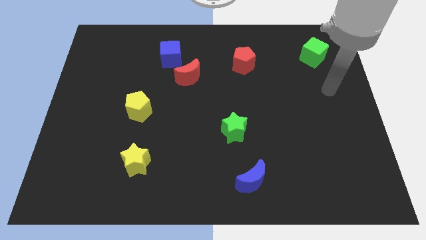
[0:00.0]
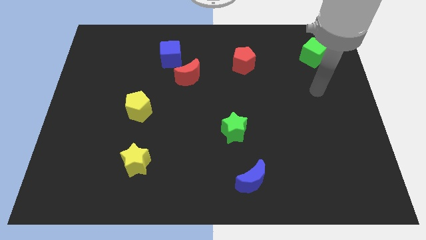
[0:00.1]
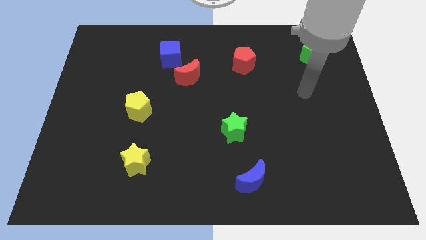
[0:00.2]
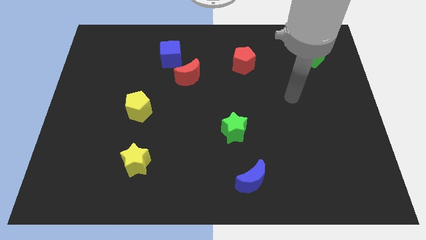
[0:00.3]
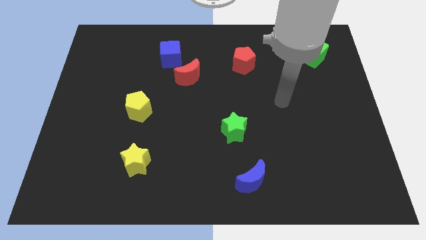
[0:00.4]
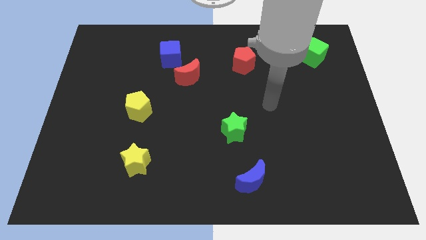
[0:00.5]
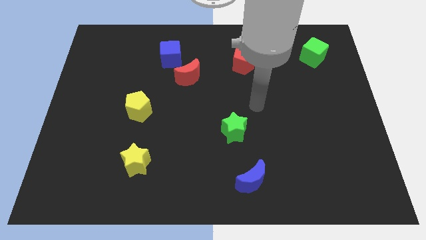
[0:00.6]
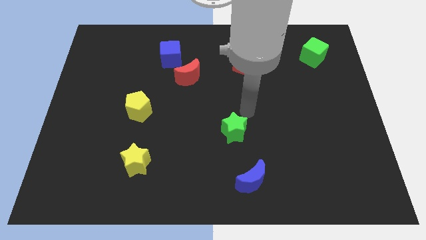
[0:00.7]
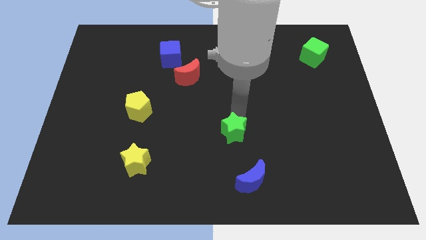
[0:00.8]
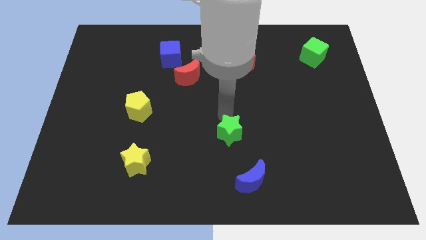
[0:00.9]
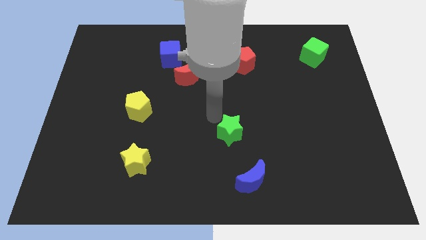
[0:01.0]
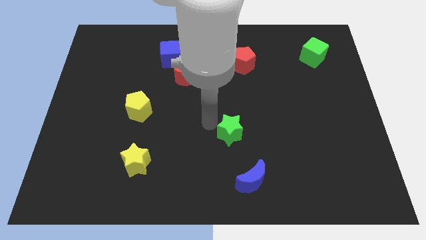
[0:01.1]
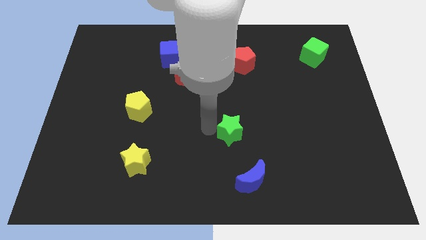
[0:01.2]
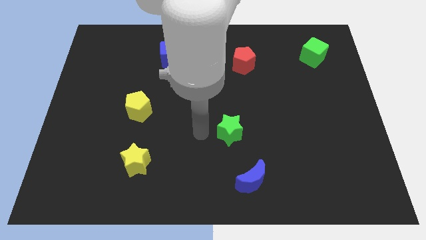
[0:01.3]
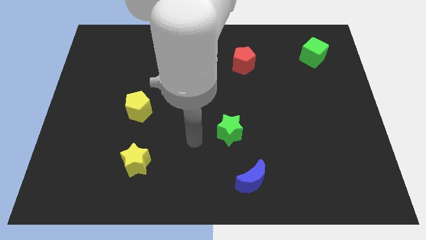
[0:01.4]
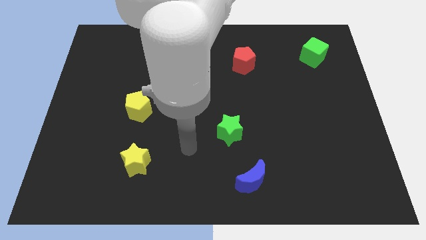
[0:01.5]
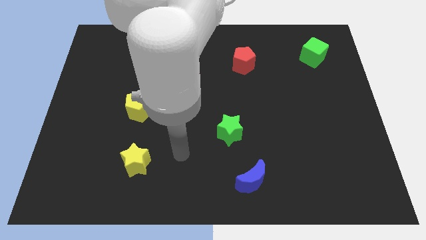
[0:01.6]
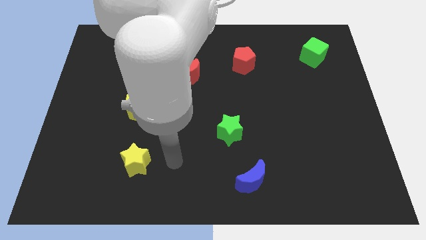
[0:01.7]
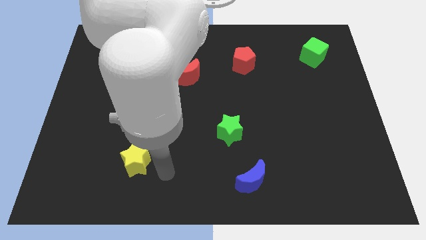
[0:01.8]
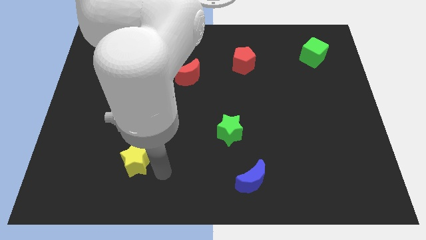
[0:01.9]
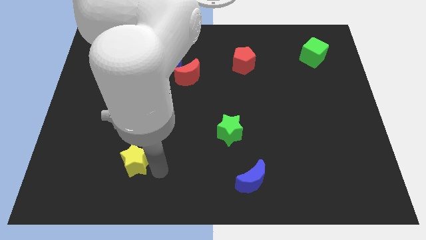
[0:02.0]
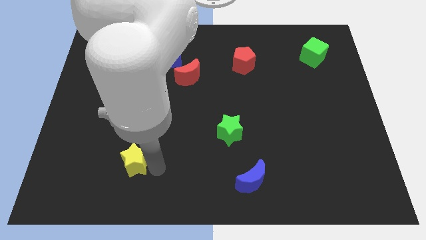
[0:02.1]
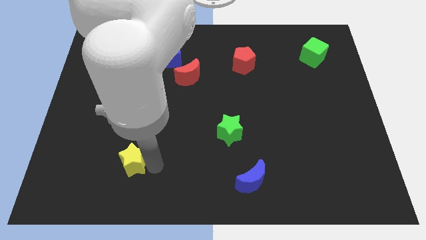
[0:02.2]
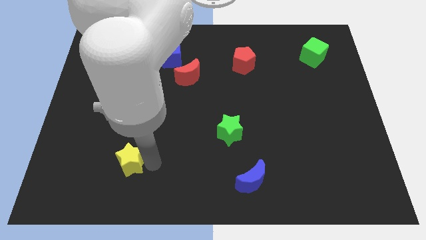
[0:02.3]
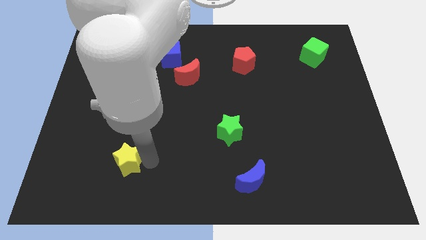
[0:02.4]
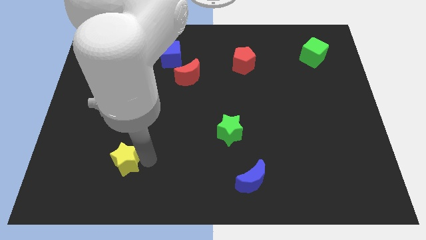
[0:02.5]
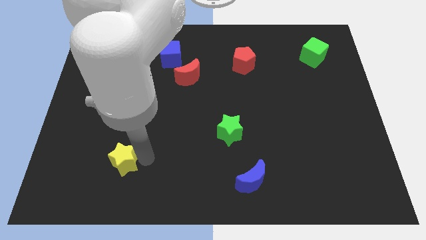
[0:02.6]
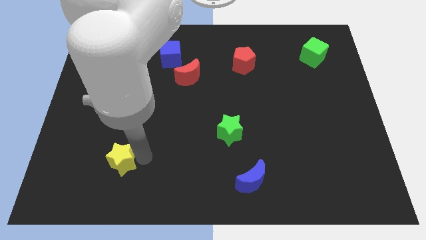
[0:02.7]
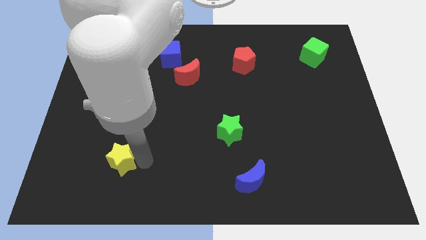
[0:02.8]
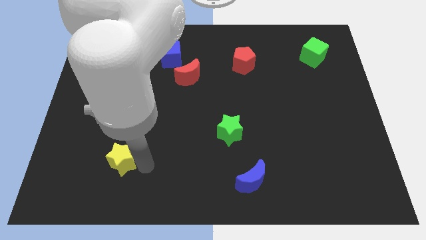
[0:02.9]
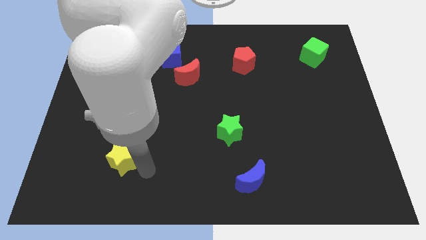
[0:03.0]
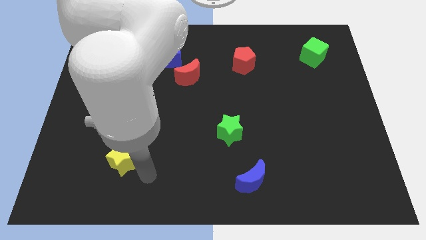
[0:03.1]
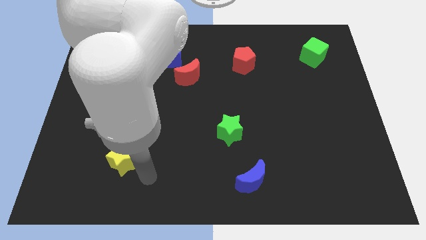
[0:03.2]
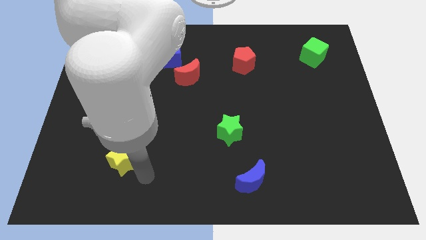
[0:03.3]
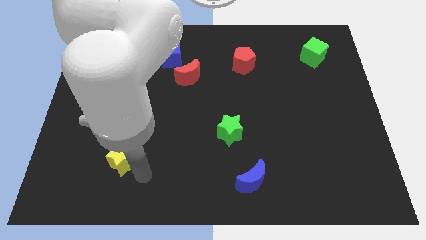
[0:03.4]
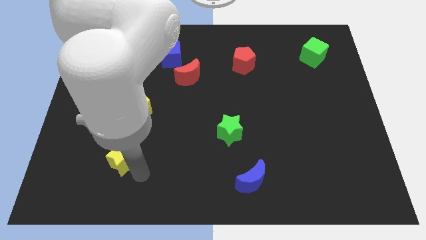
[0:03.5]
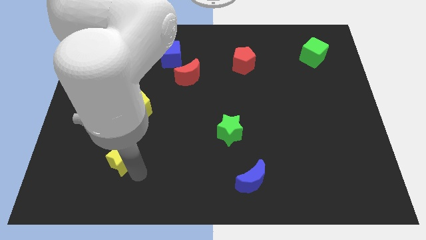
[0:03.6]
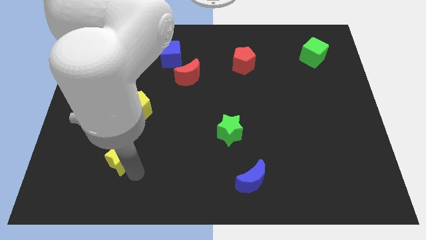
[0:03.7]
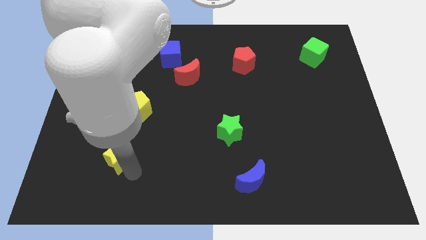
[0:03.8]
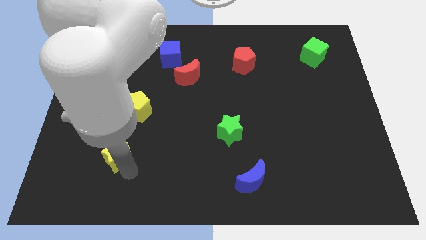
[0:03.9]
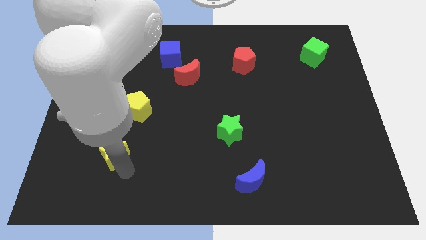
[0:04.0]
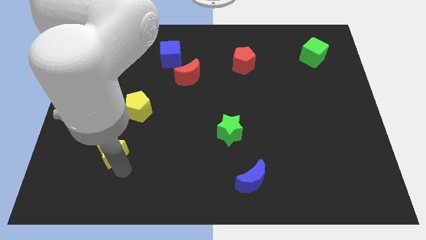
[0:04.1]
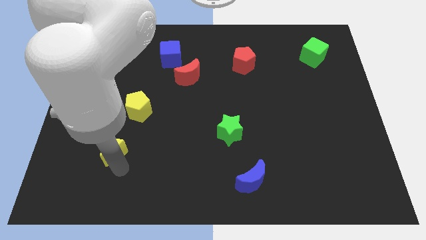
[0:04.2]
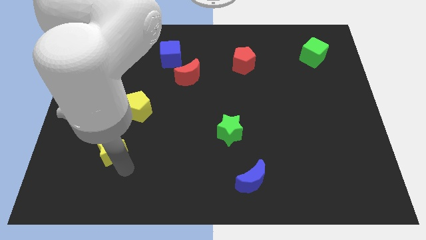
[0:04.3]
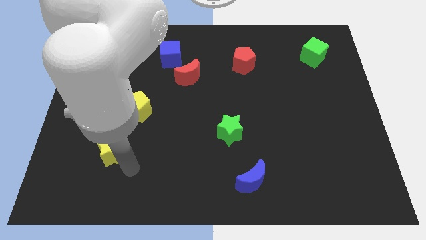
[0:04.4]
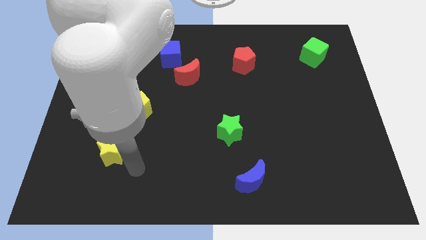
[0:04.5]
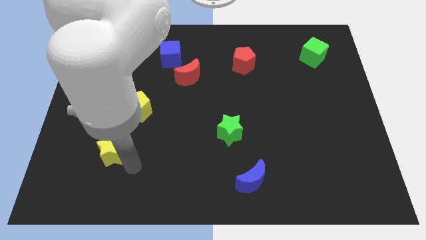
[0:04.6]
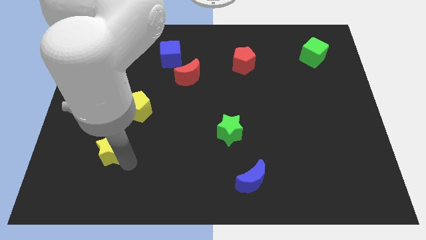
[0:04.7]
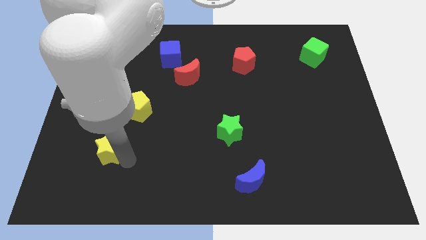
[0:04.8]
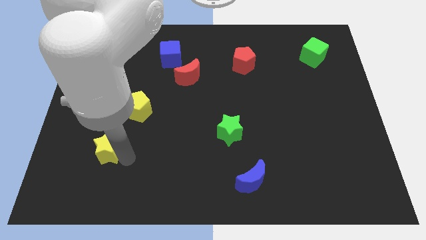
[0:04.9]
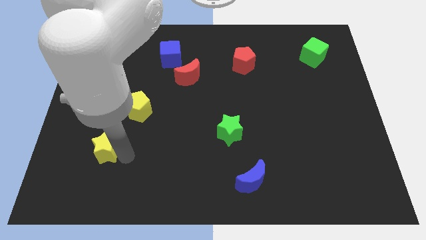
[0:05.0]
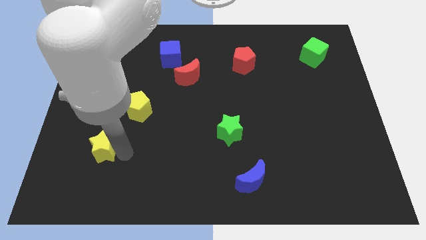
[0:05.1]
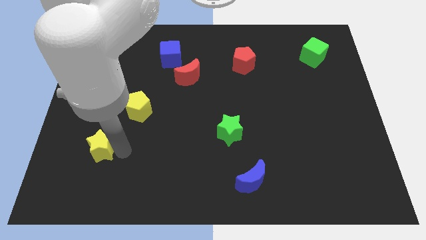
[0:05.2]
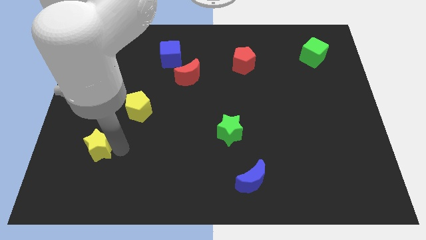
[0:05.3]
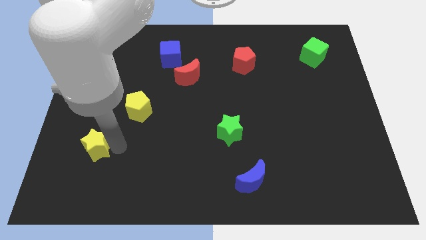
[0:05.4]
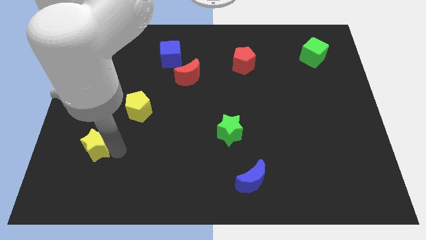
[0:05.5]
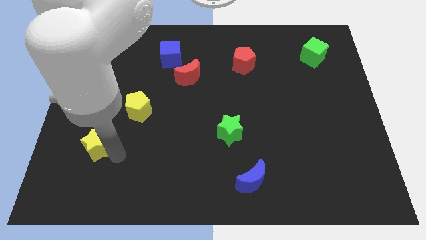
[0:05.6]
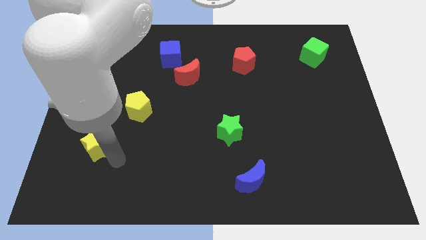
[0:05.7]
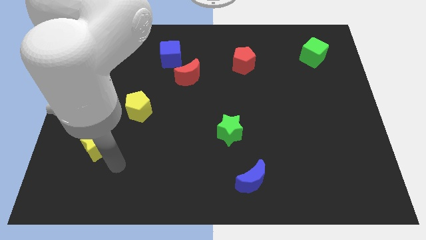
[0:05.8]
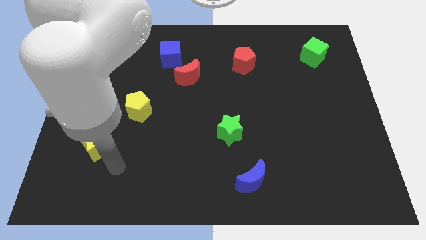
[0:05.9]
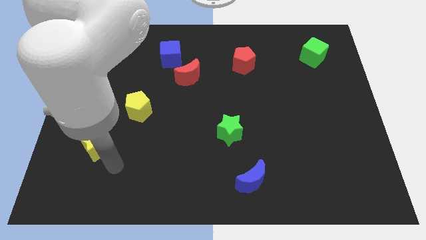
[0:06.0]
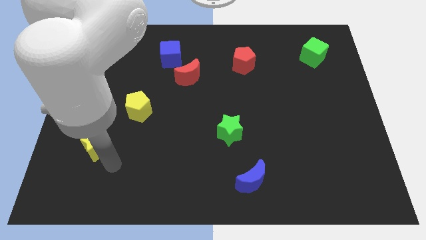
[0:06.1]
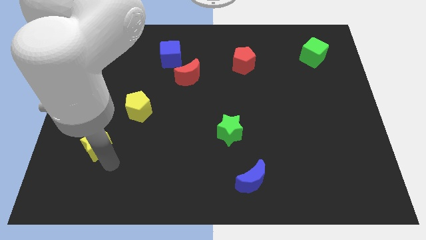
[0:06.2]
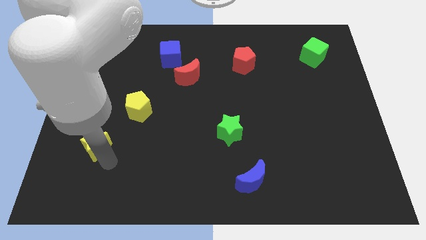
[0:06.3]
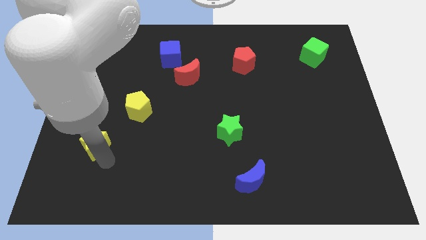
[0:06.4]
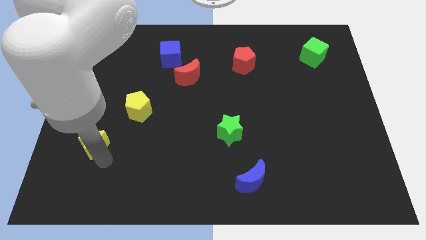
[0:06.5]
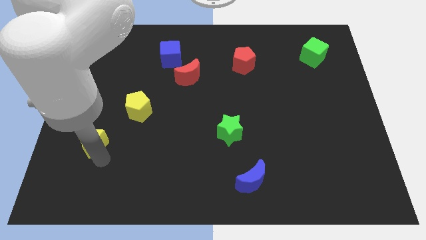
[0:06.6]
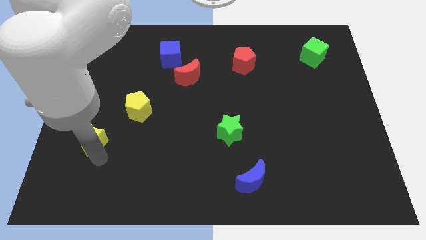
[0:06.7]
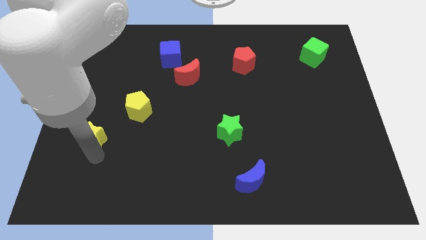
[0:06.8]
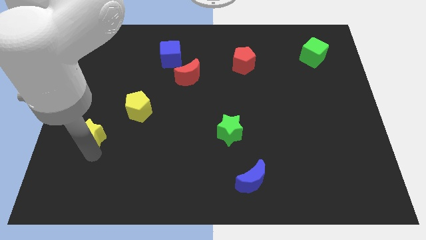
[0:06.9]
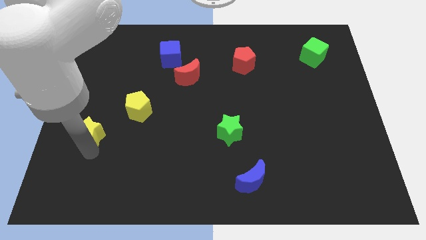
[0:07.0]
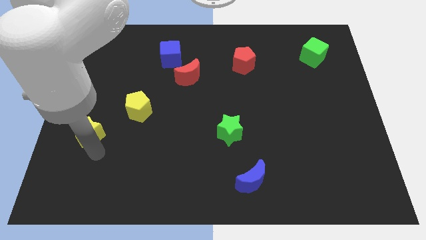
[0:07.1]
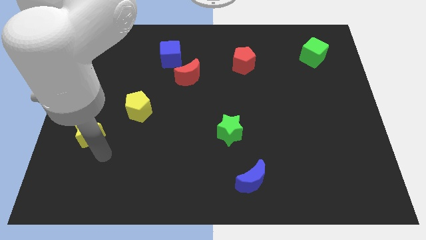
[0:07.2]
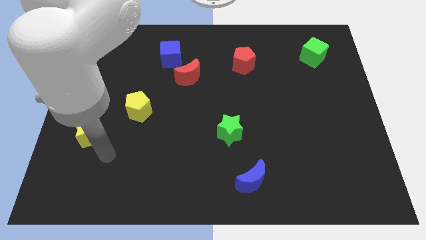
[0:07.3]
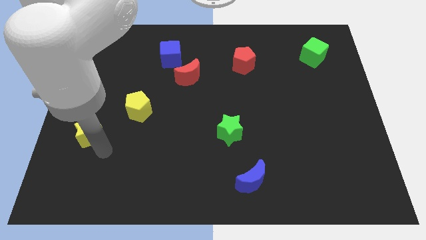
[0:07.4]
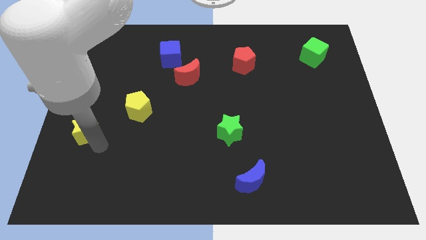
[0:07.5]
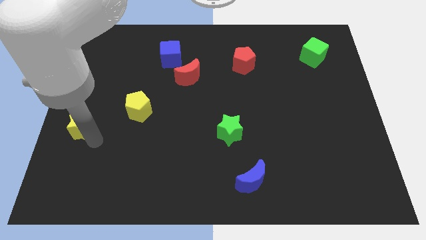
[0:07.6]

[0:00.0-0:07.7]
slide the yellow star to the left side
